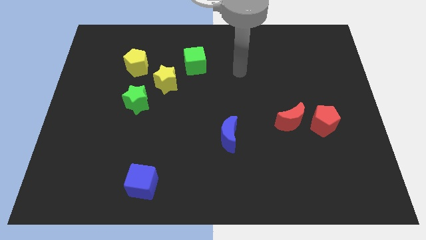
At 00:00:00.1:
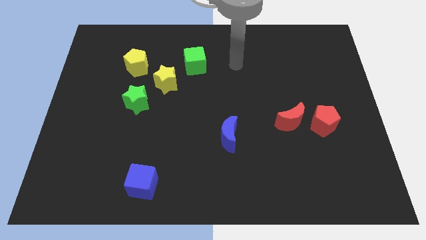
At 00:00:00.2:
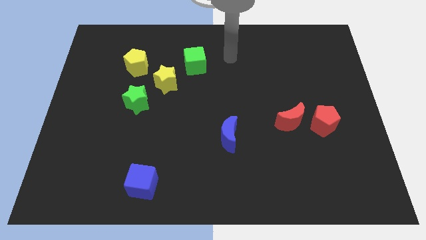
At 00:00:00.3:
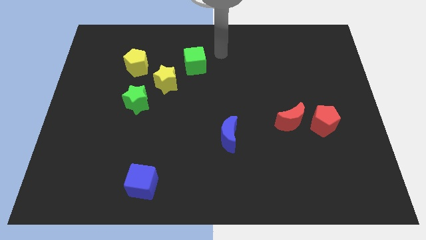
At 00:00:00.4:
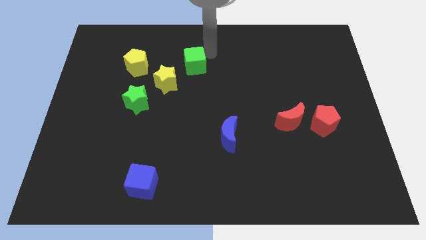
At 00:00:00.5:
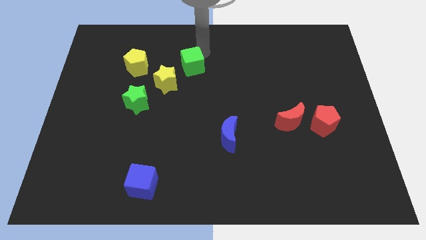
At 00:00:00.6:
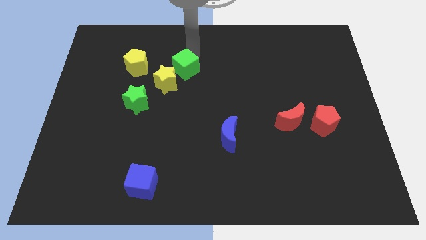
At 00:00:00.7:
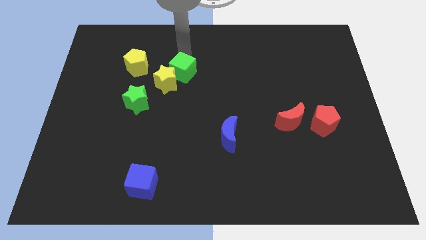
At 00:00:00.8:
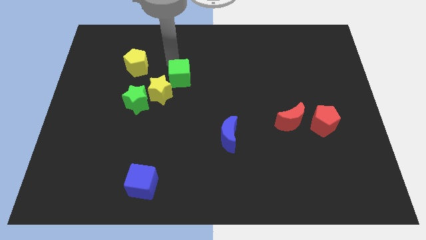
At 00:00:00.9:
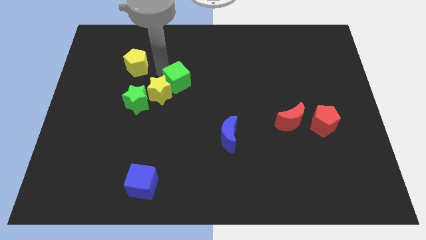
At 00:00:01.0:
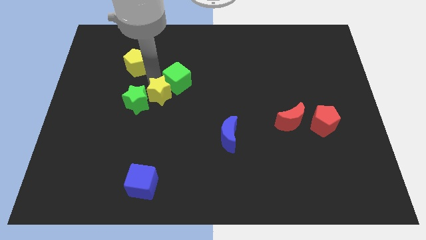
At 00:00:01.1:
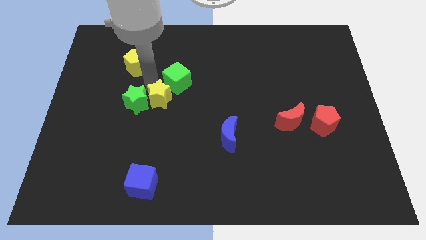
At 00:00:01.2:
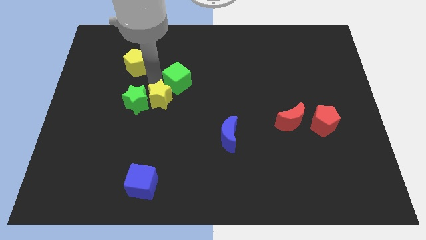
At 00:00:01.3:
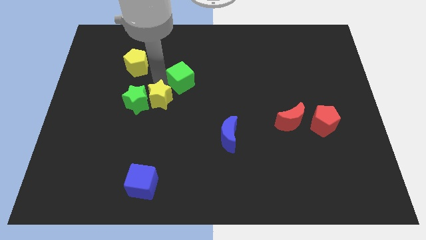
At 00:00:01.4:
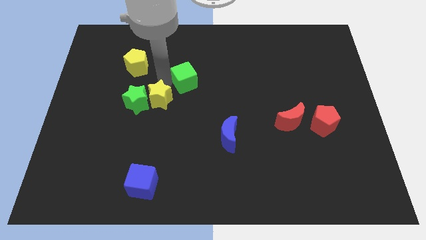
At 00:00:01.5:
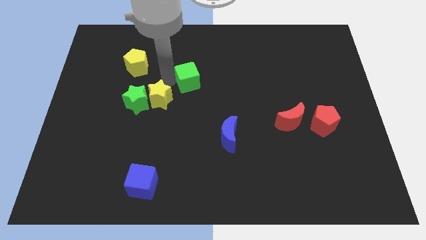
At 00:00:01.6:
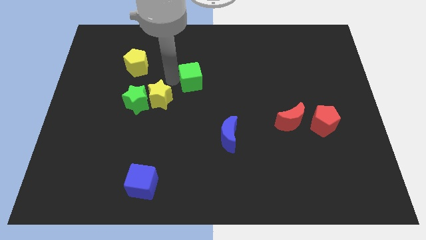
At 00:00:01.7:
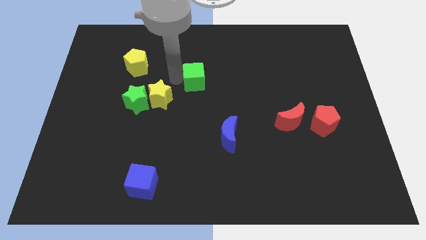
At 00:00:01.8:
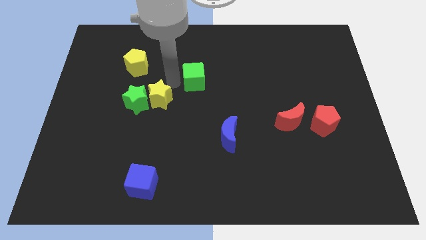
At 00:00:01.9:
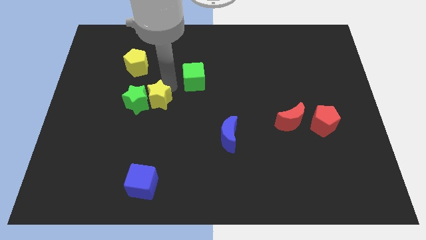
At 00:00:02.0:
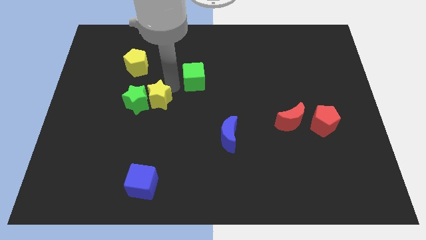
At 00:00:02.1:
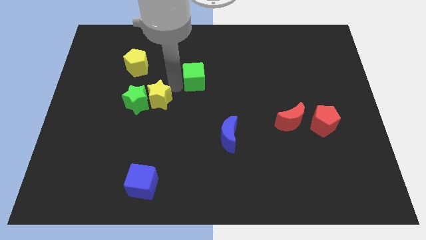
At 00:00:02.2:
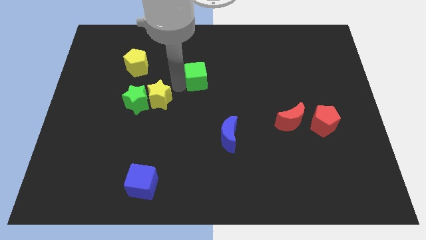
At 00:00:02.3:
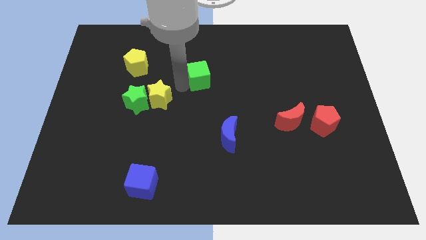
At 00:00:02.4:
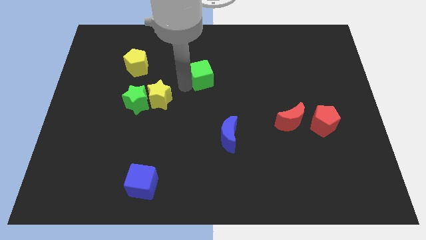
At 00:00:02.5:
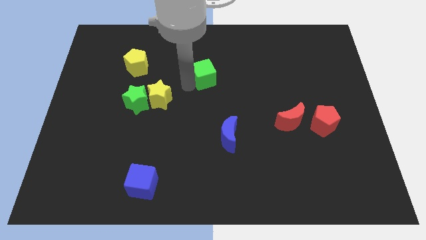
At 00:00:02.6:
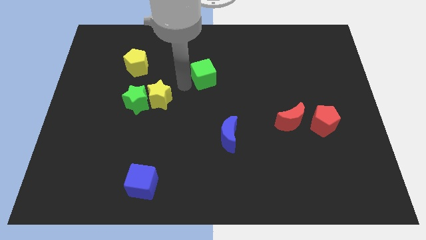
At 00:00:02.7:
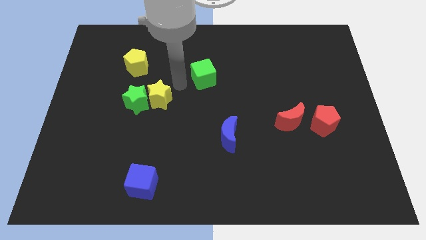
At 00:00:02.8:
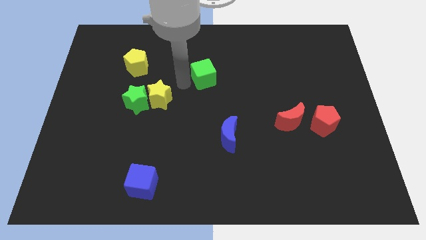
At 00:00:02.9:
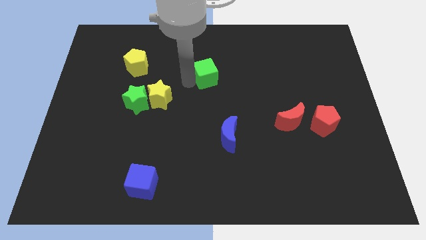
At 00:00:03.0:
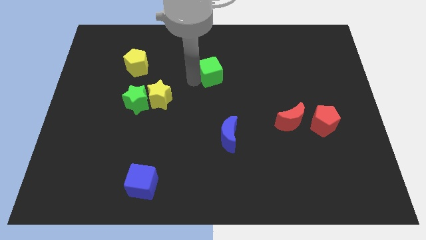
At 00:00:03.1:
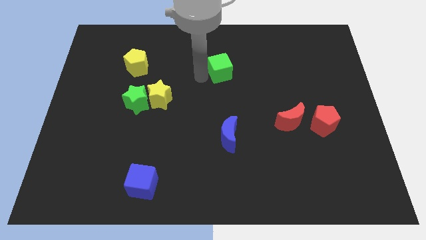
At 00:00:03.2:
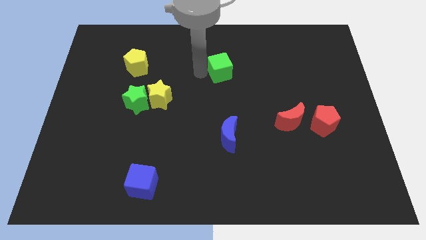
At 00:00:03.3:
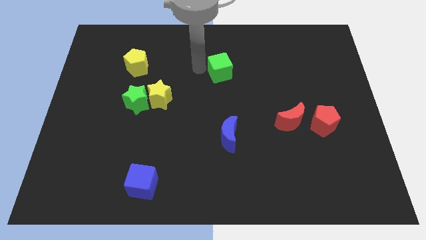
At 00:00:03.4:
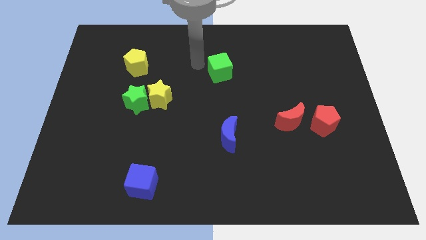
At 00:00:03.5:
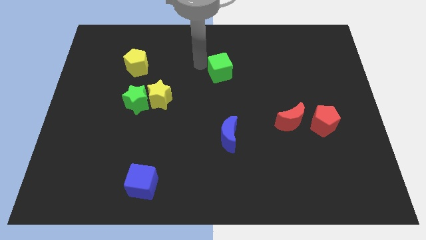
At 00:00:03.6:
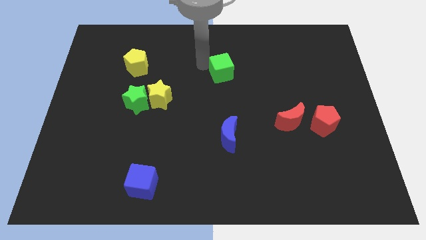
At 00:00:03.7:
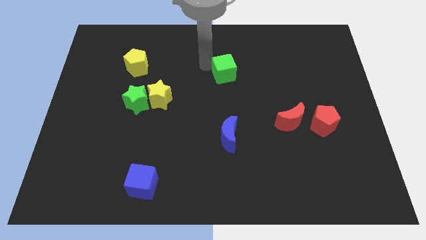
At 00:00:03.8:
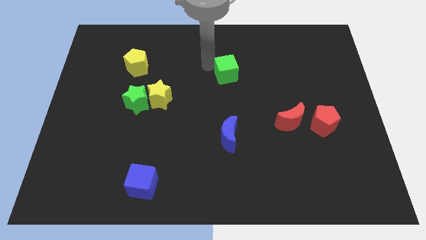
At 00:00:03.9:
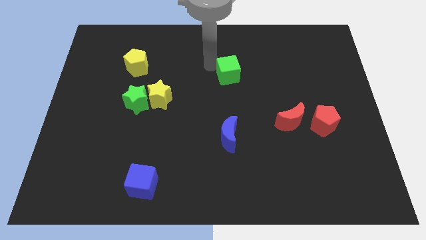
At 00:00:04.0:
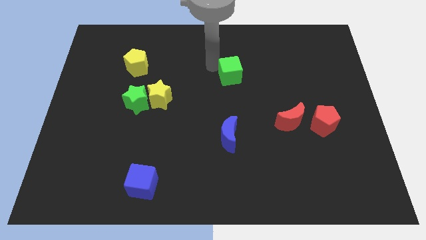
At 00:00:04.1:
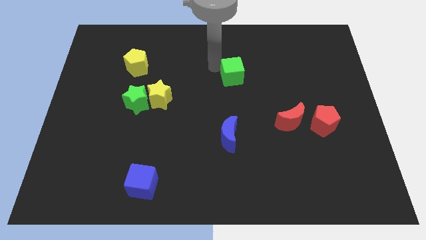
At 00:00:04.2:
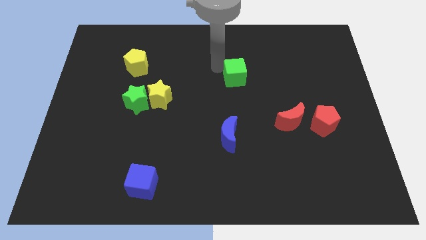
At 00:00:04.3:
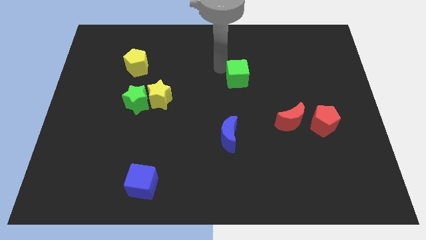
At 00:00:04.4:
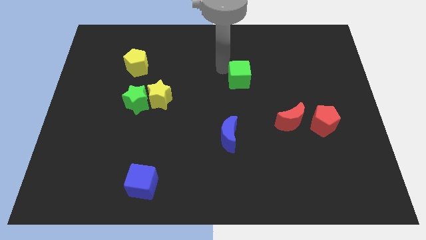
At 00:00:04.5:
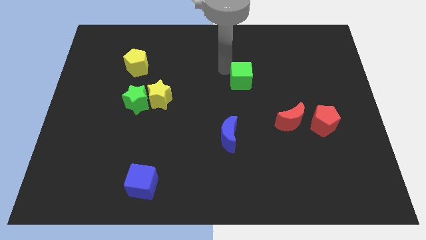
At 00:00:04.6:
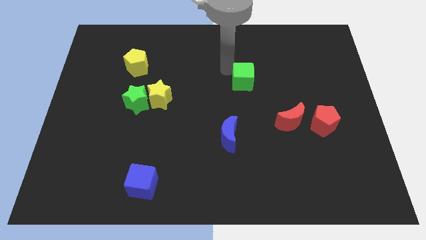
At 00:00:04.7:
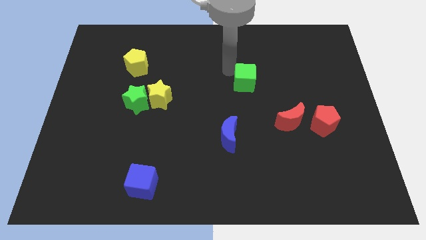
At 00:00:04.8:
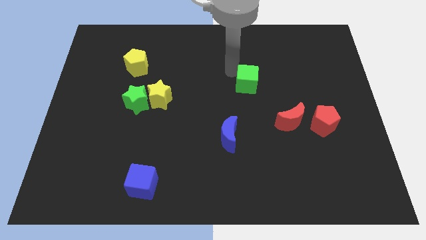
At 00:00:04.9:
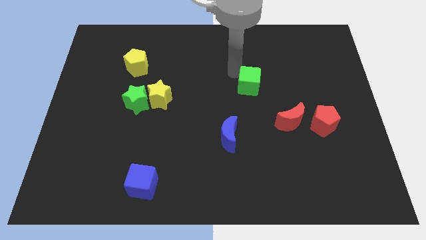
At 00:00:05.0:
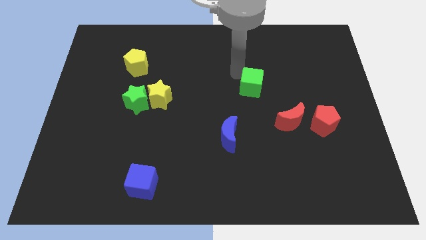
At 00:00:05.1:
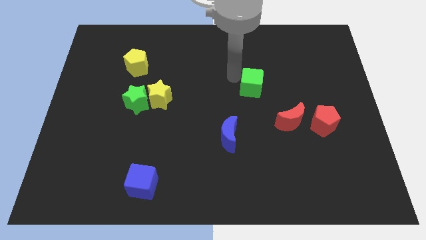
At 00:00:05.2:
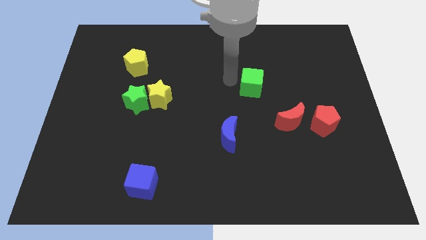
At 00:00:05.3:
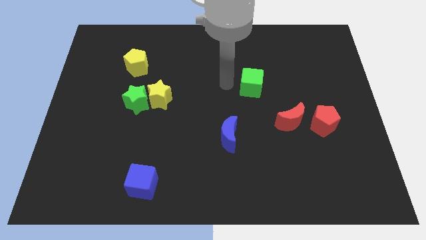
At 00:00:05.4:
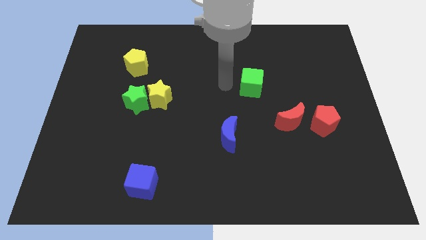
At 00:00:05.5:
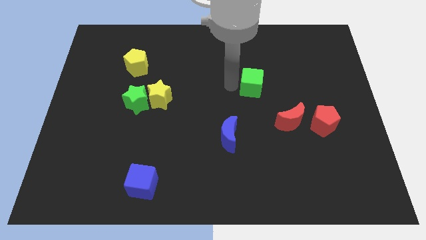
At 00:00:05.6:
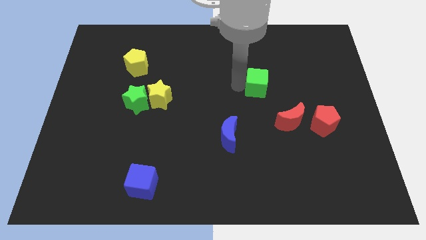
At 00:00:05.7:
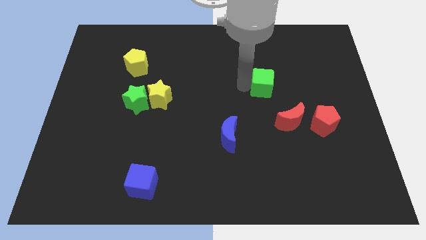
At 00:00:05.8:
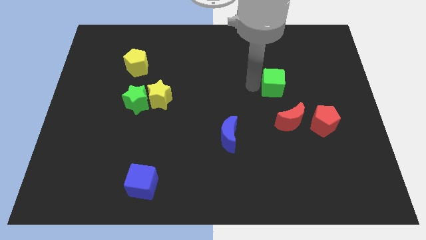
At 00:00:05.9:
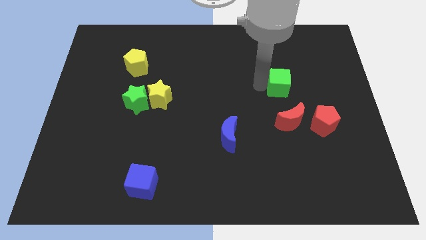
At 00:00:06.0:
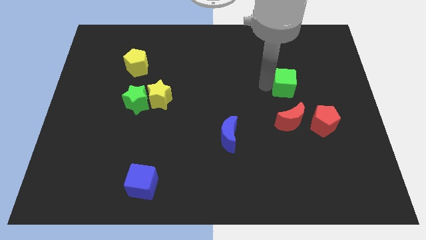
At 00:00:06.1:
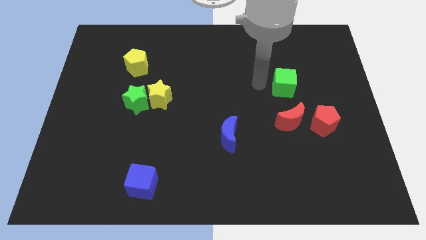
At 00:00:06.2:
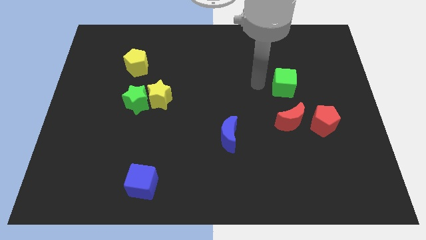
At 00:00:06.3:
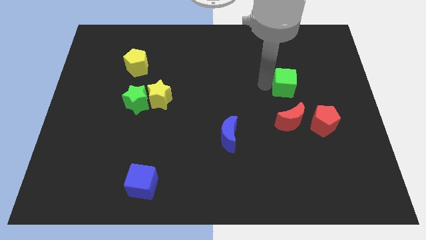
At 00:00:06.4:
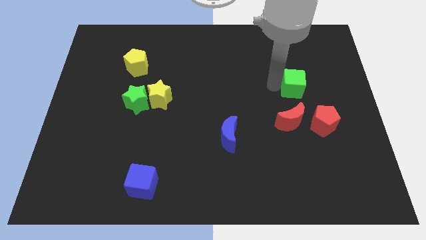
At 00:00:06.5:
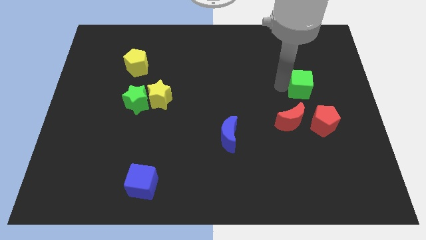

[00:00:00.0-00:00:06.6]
put the green cube above the red pentagon

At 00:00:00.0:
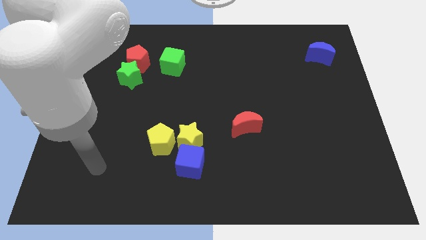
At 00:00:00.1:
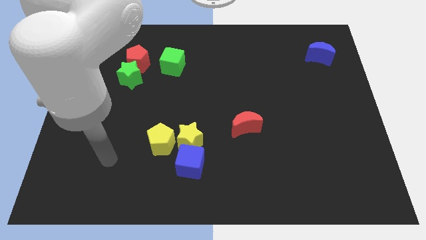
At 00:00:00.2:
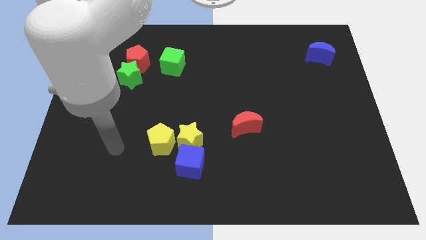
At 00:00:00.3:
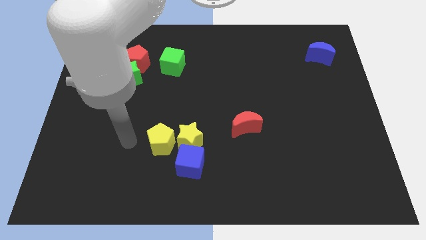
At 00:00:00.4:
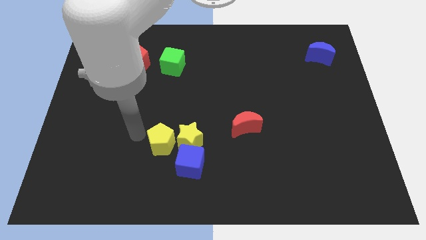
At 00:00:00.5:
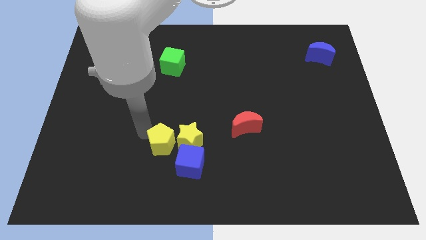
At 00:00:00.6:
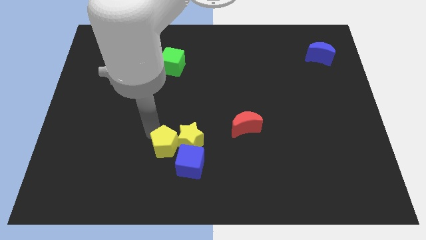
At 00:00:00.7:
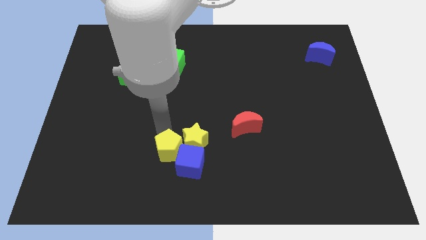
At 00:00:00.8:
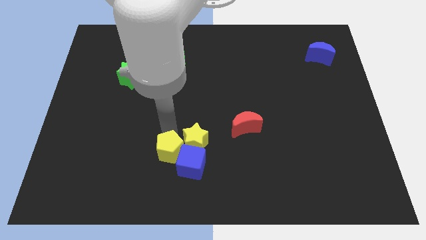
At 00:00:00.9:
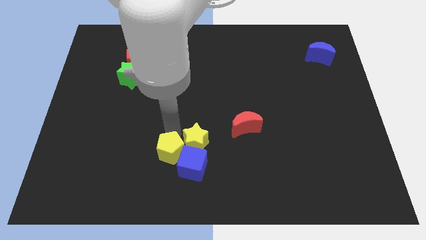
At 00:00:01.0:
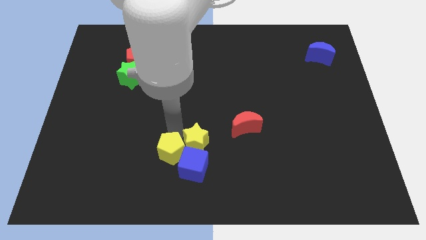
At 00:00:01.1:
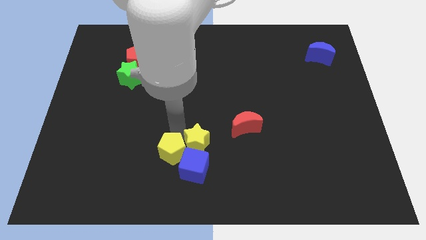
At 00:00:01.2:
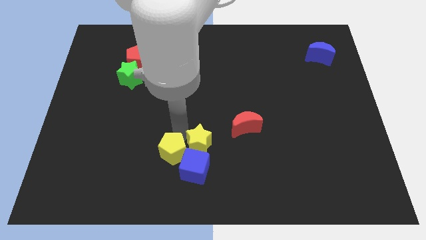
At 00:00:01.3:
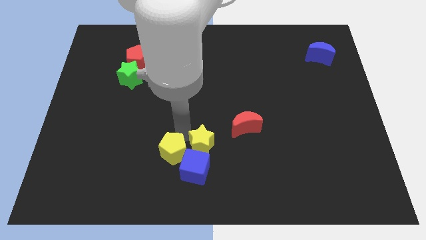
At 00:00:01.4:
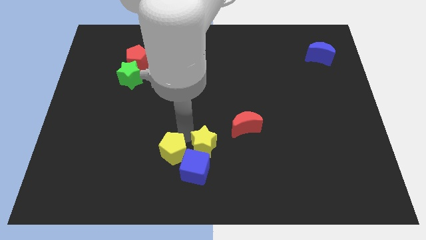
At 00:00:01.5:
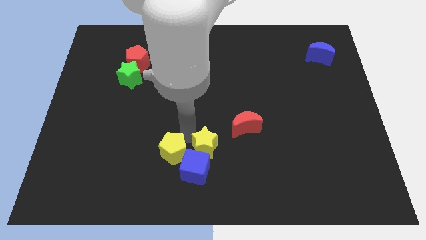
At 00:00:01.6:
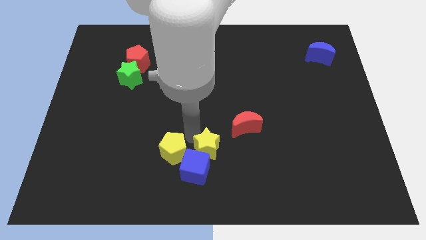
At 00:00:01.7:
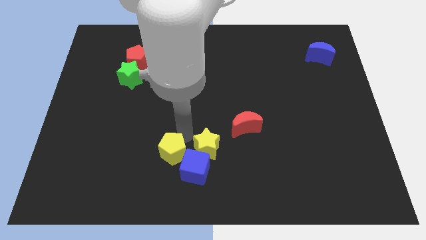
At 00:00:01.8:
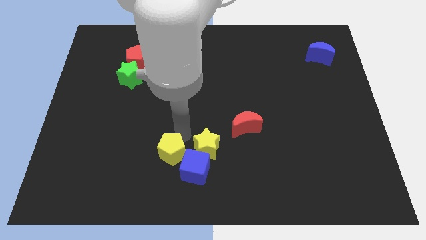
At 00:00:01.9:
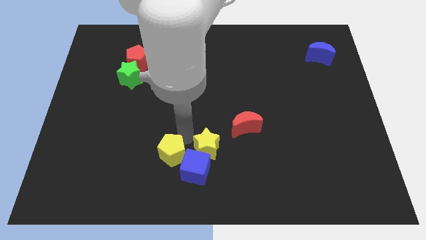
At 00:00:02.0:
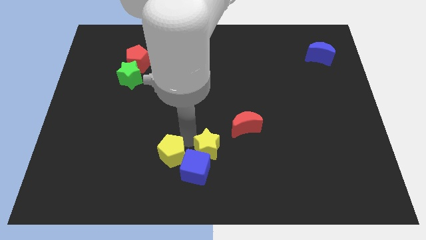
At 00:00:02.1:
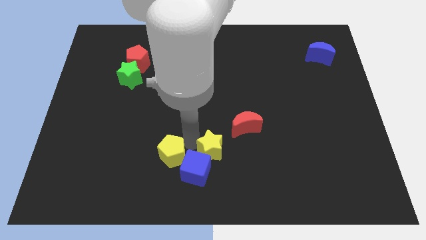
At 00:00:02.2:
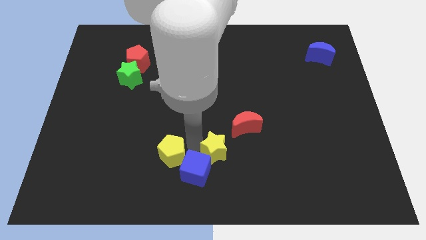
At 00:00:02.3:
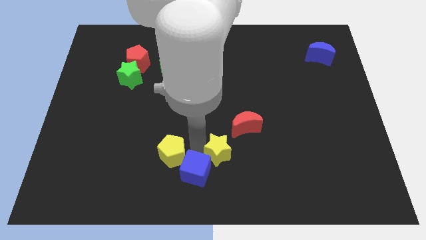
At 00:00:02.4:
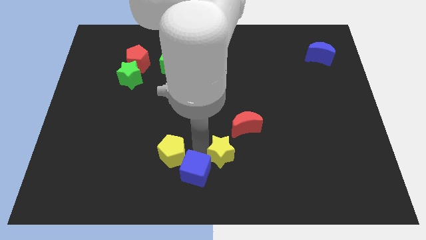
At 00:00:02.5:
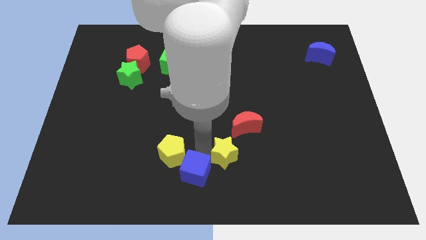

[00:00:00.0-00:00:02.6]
put the yellow star to the bottom side of the red moon
